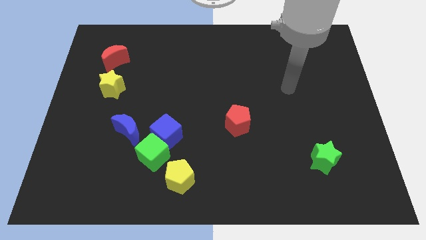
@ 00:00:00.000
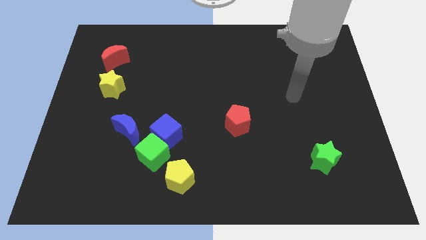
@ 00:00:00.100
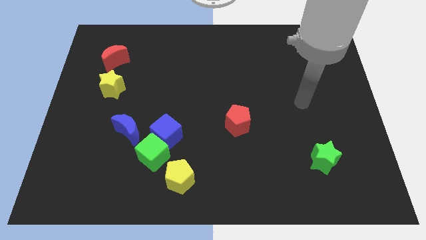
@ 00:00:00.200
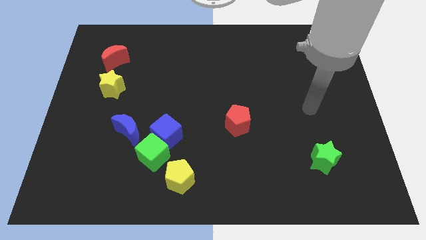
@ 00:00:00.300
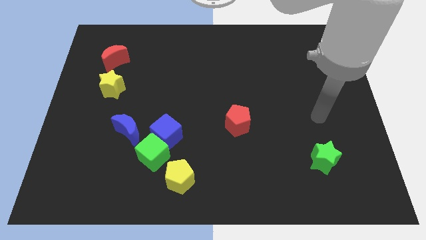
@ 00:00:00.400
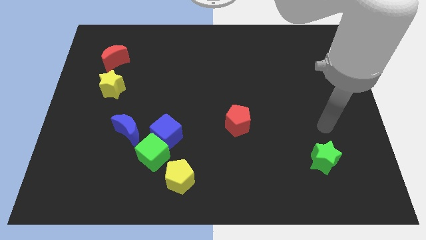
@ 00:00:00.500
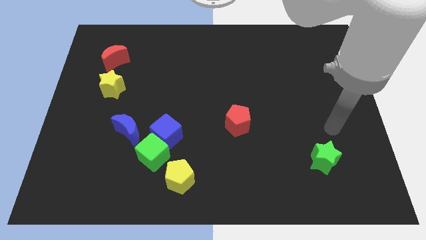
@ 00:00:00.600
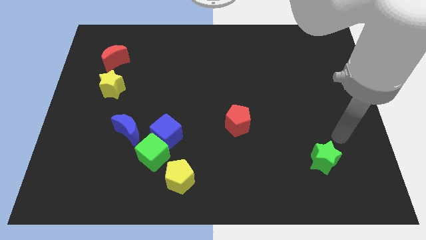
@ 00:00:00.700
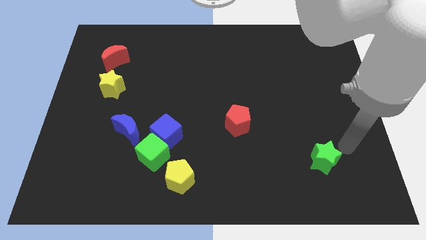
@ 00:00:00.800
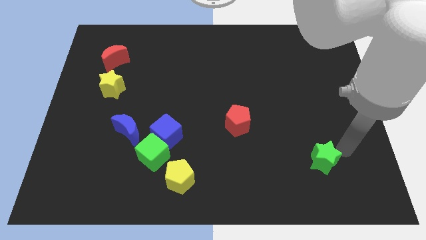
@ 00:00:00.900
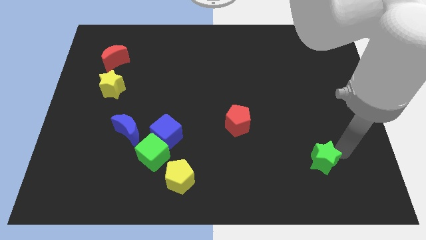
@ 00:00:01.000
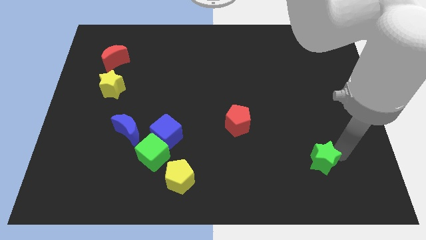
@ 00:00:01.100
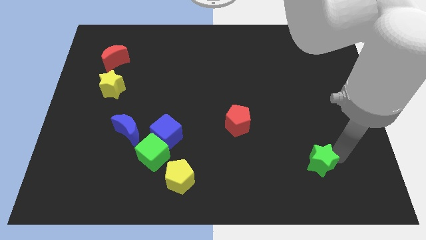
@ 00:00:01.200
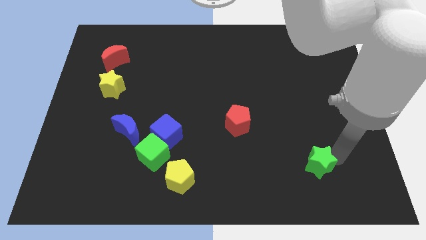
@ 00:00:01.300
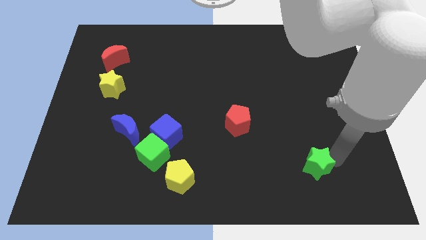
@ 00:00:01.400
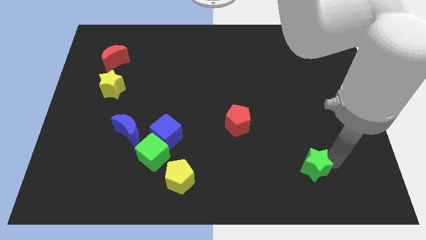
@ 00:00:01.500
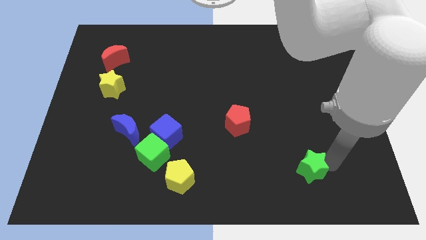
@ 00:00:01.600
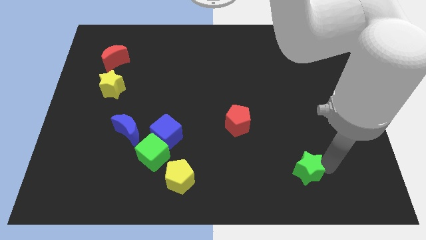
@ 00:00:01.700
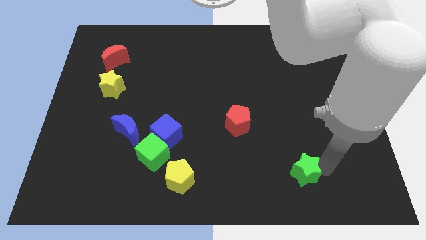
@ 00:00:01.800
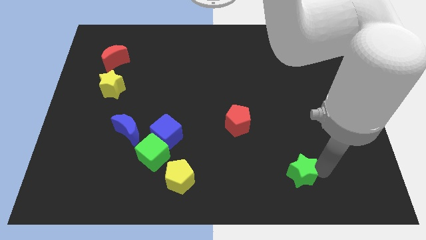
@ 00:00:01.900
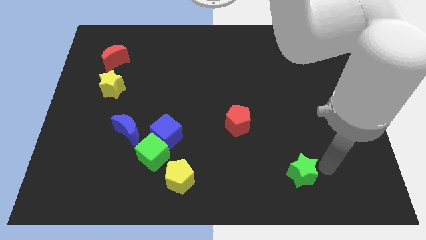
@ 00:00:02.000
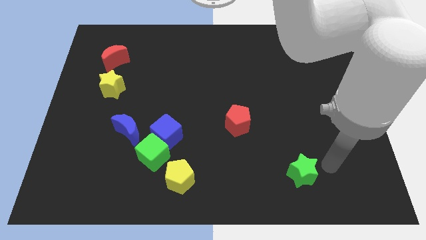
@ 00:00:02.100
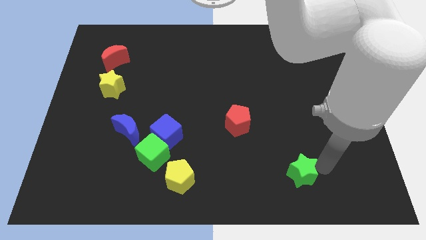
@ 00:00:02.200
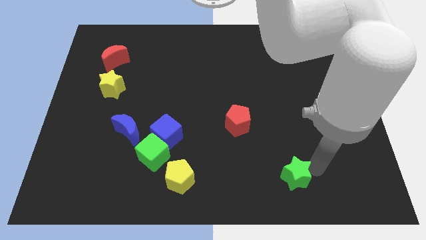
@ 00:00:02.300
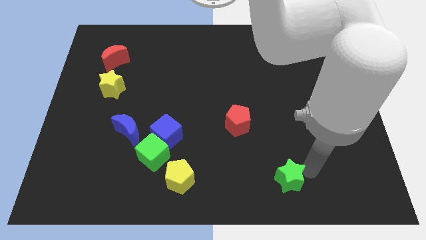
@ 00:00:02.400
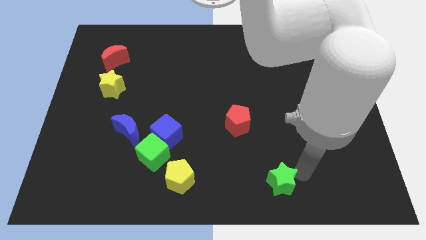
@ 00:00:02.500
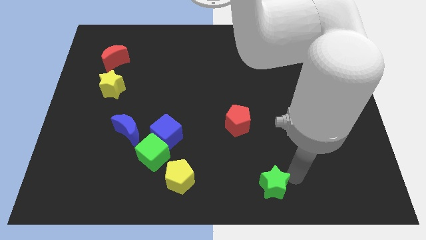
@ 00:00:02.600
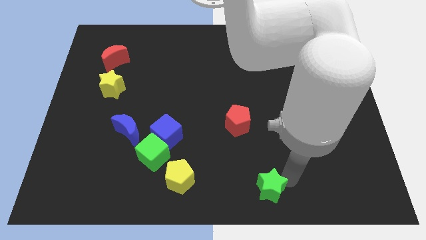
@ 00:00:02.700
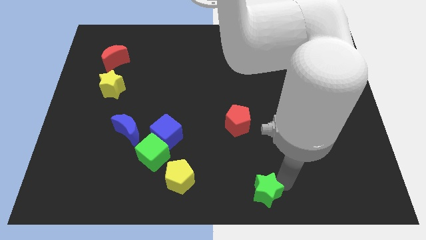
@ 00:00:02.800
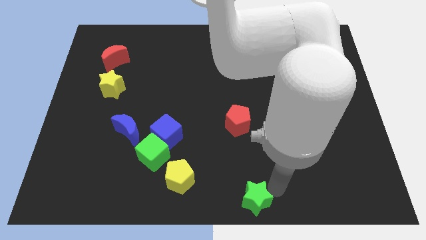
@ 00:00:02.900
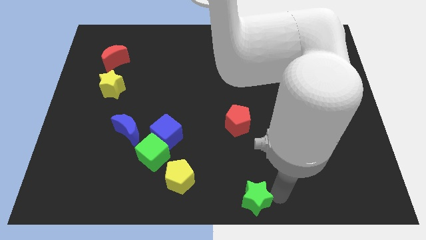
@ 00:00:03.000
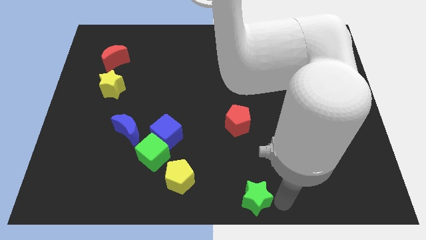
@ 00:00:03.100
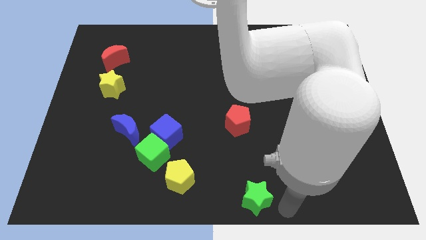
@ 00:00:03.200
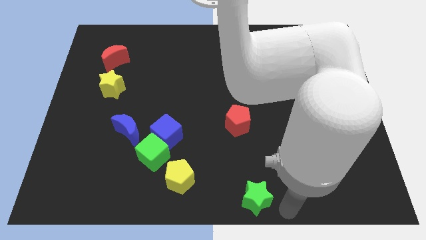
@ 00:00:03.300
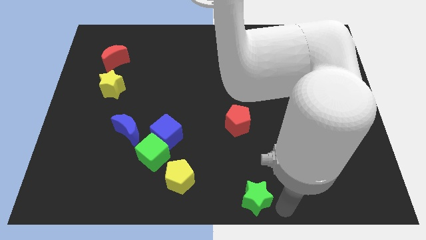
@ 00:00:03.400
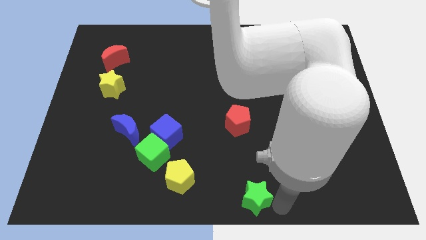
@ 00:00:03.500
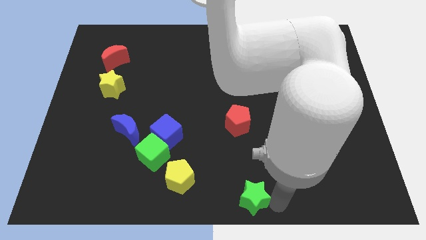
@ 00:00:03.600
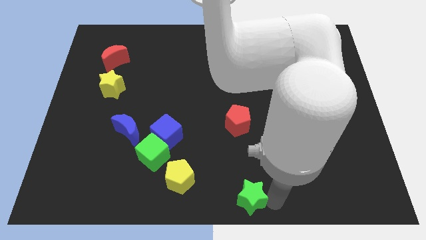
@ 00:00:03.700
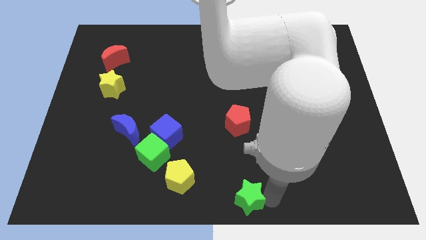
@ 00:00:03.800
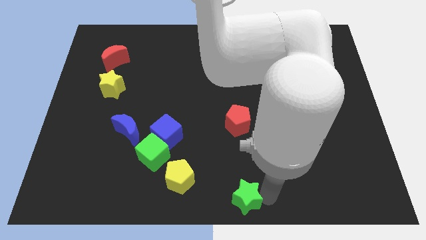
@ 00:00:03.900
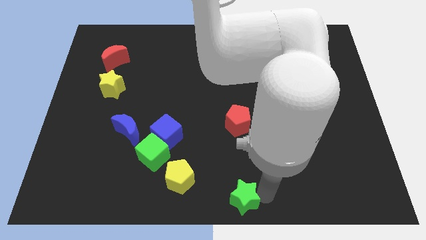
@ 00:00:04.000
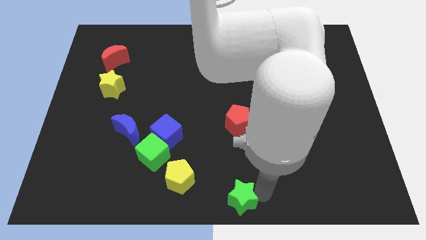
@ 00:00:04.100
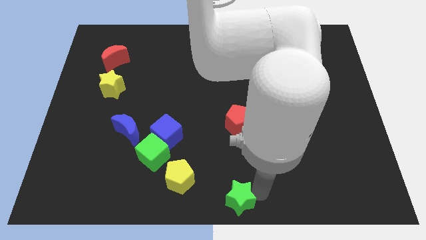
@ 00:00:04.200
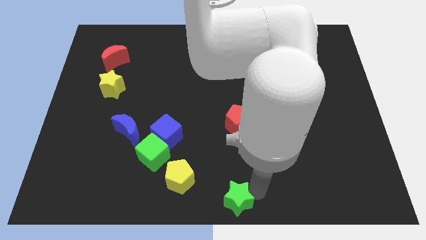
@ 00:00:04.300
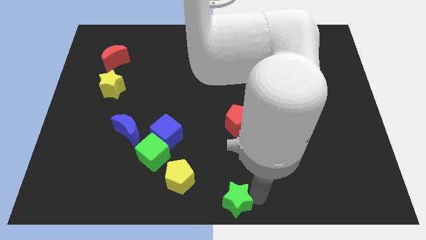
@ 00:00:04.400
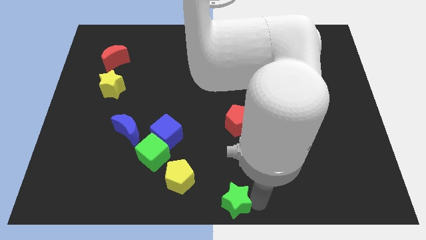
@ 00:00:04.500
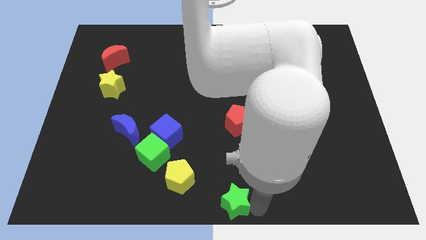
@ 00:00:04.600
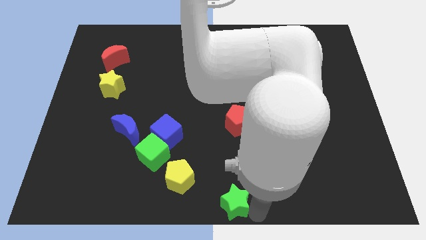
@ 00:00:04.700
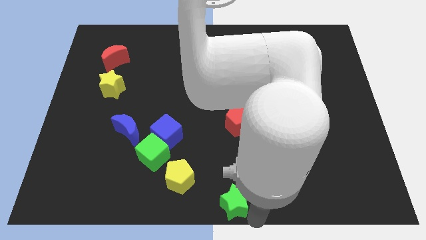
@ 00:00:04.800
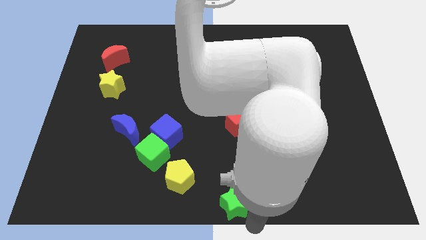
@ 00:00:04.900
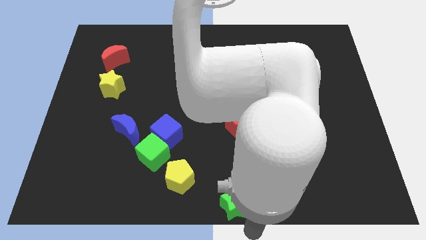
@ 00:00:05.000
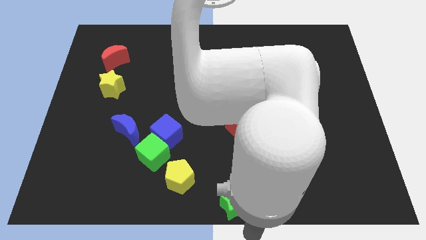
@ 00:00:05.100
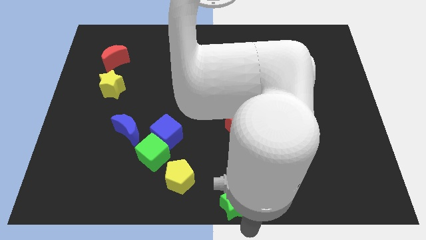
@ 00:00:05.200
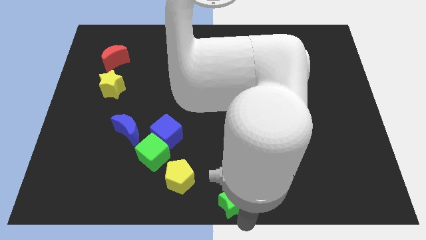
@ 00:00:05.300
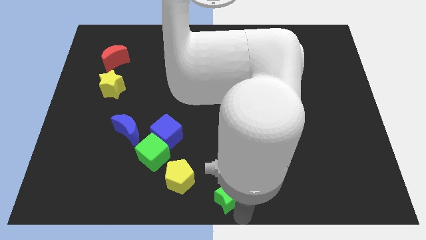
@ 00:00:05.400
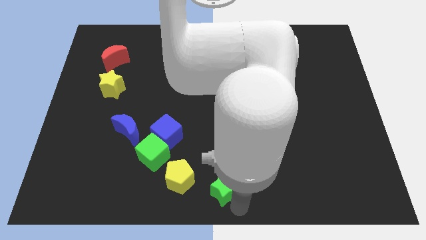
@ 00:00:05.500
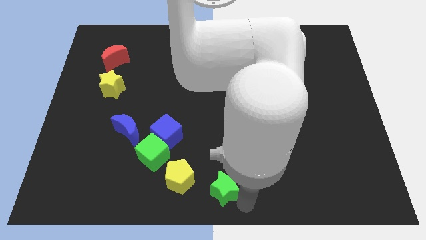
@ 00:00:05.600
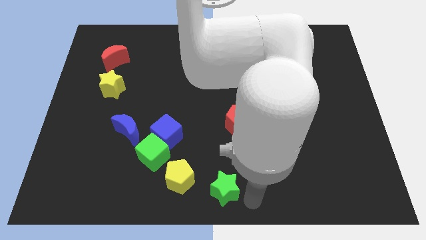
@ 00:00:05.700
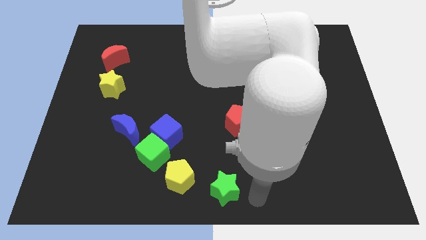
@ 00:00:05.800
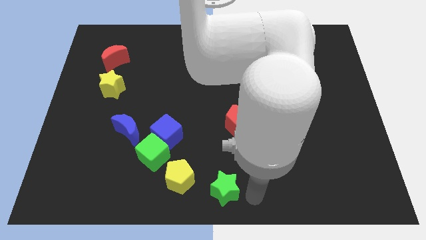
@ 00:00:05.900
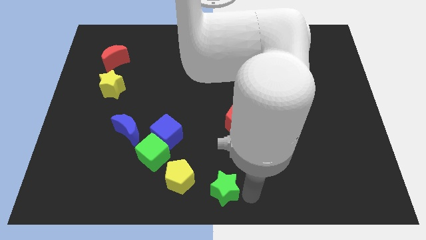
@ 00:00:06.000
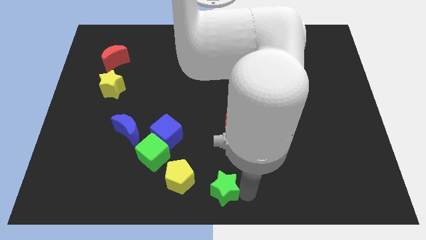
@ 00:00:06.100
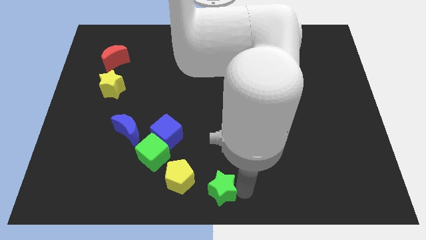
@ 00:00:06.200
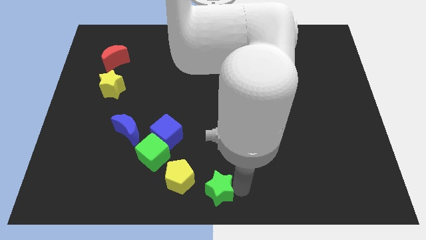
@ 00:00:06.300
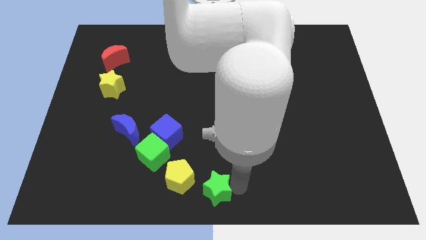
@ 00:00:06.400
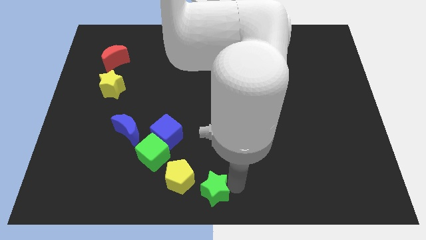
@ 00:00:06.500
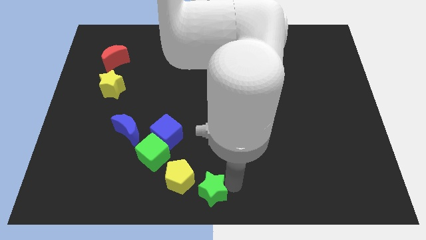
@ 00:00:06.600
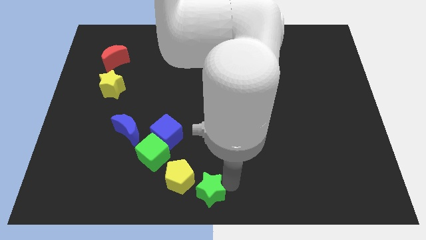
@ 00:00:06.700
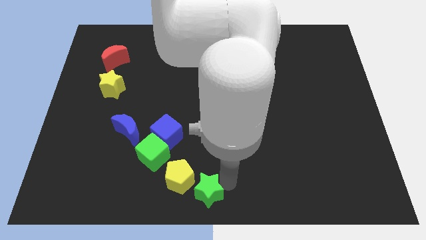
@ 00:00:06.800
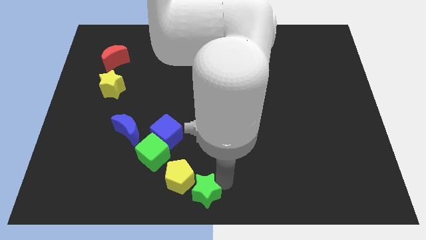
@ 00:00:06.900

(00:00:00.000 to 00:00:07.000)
put the green star towards the yellow pentagon
